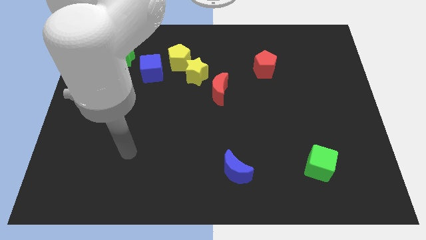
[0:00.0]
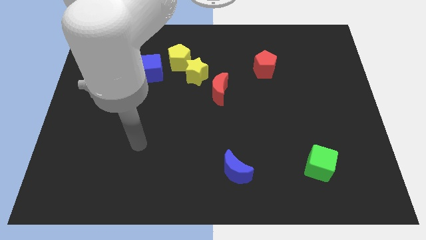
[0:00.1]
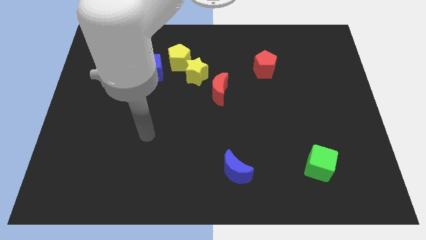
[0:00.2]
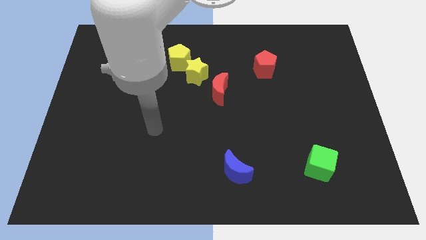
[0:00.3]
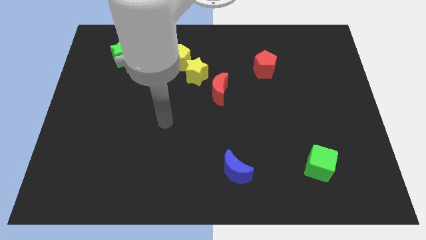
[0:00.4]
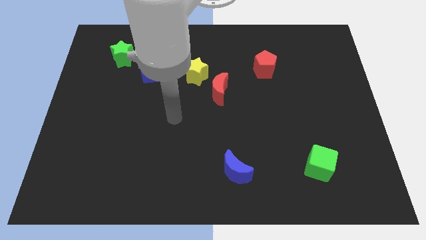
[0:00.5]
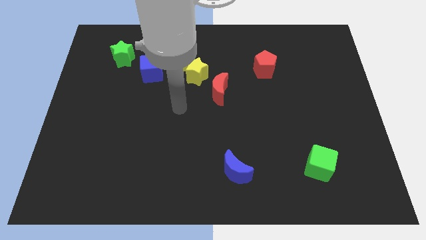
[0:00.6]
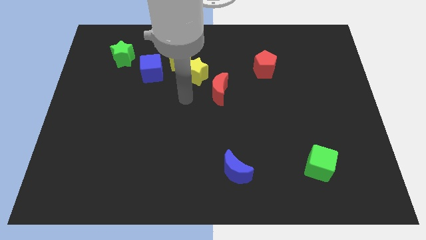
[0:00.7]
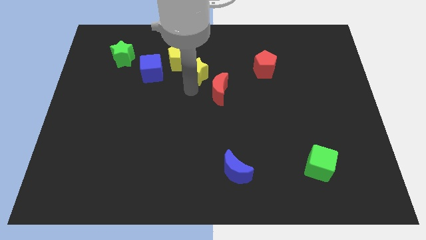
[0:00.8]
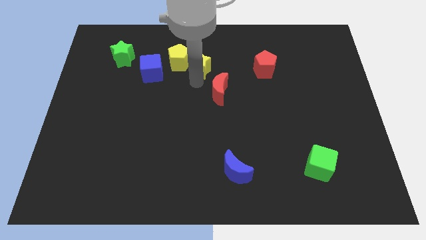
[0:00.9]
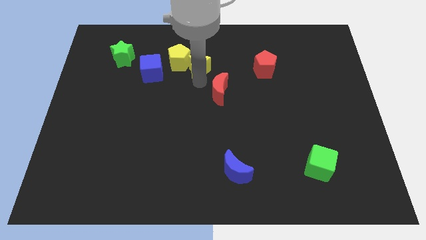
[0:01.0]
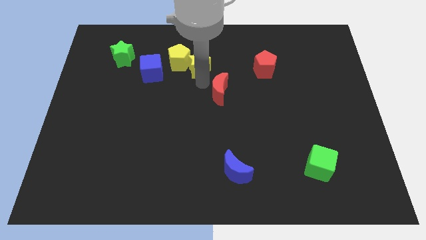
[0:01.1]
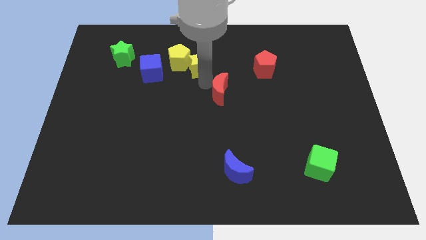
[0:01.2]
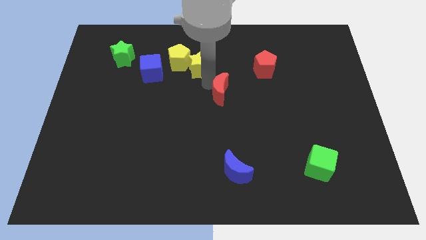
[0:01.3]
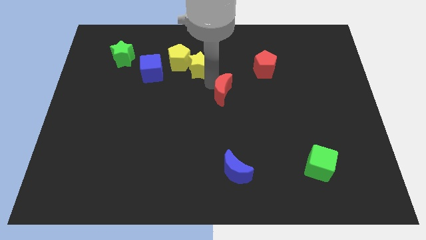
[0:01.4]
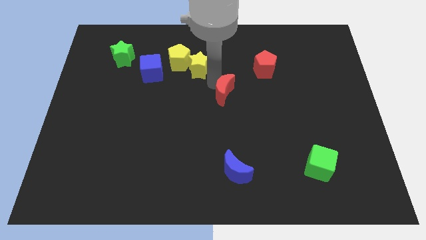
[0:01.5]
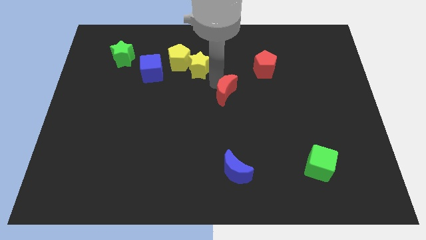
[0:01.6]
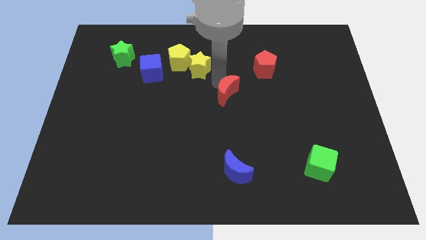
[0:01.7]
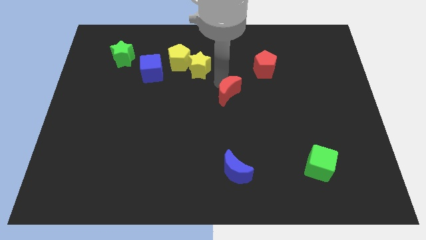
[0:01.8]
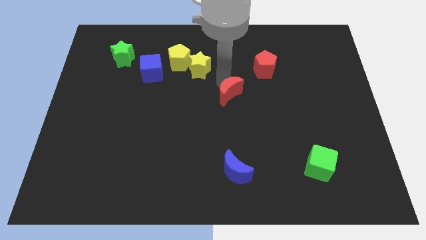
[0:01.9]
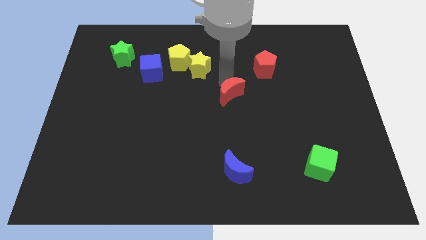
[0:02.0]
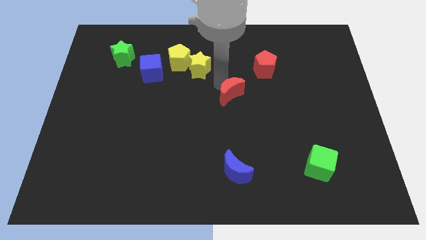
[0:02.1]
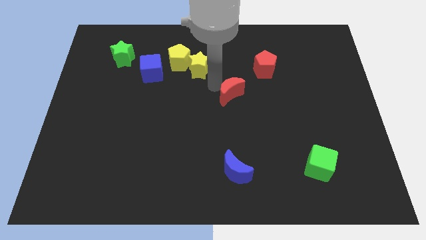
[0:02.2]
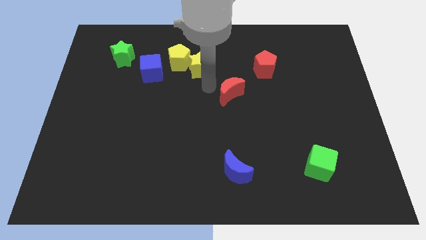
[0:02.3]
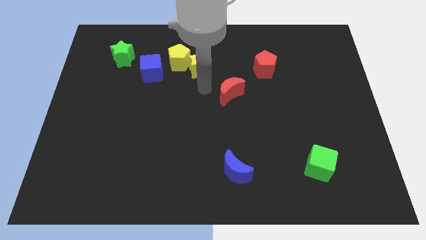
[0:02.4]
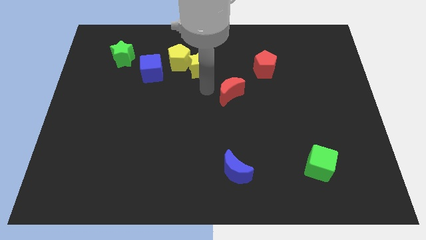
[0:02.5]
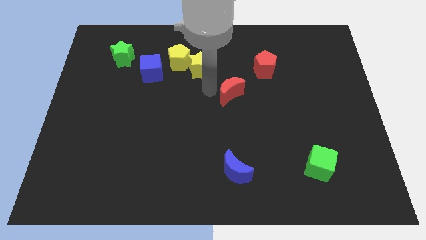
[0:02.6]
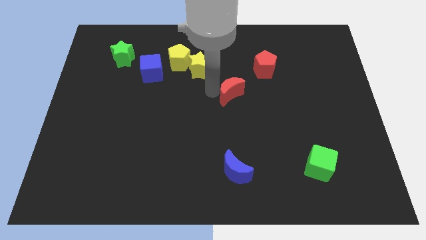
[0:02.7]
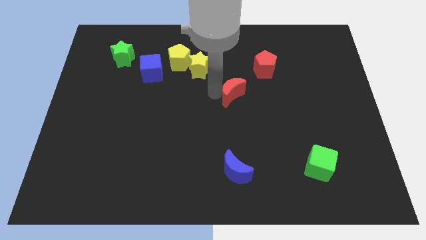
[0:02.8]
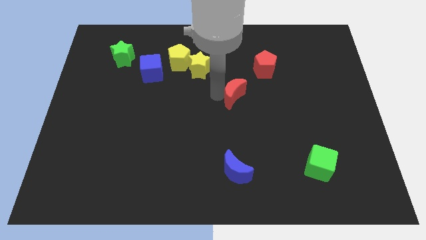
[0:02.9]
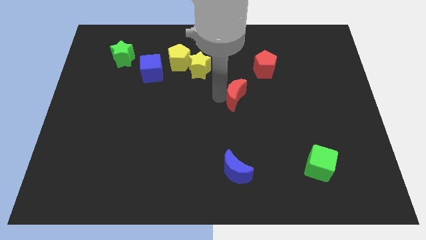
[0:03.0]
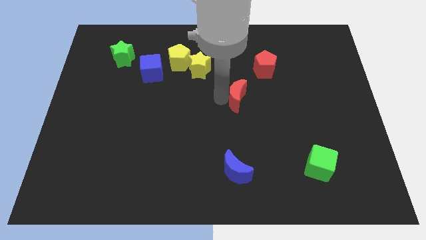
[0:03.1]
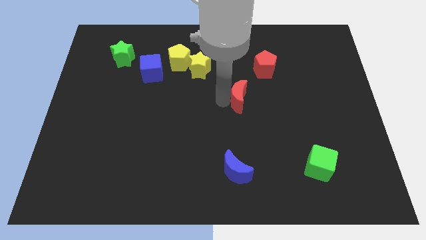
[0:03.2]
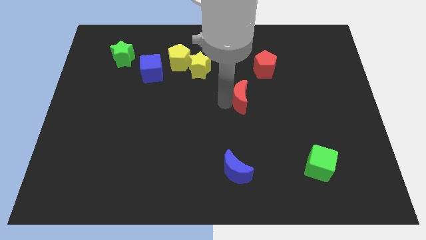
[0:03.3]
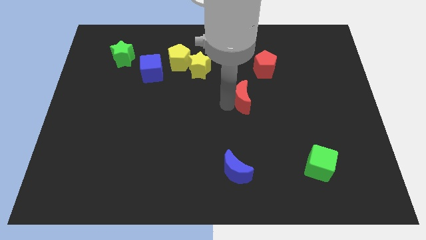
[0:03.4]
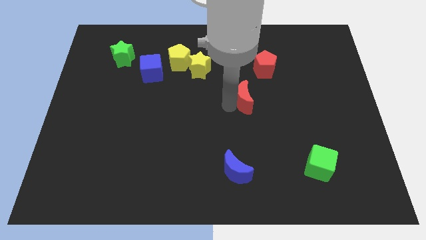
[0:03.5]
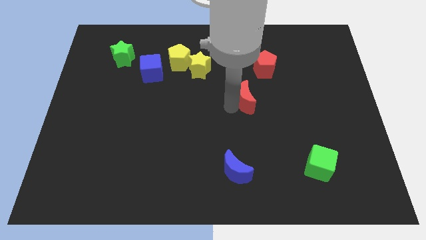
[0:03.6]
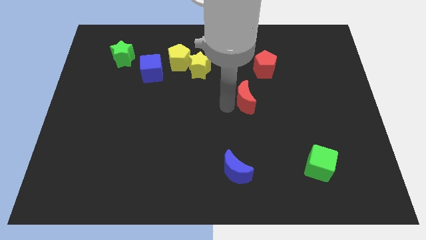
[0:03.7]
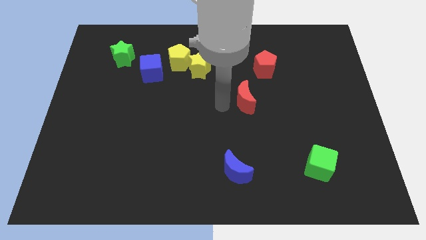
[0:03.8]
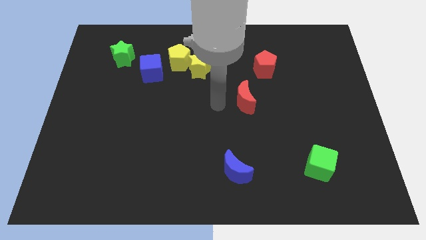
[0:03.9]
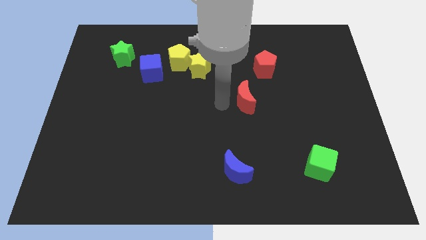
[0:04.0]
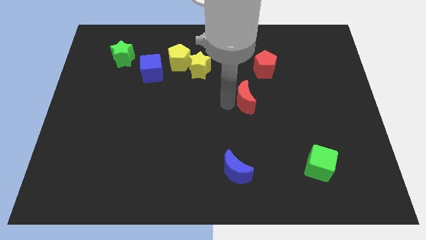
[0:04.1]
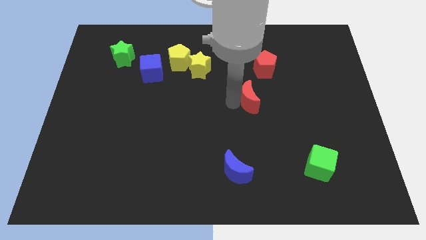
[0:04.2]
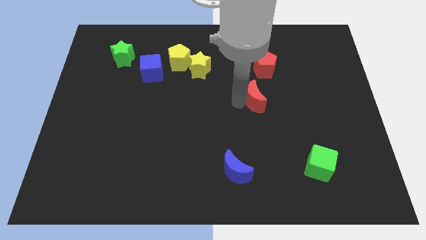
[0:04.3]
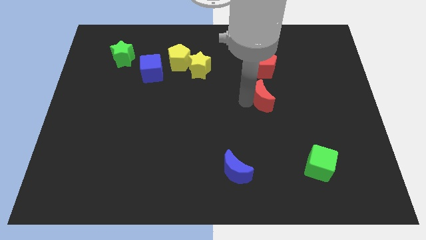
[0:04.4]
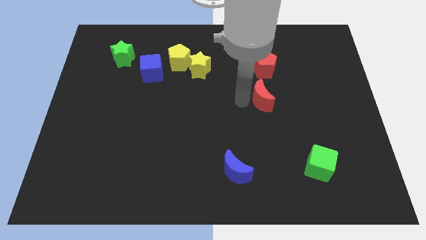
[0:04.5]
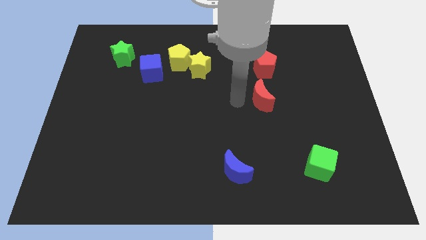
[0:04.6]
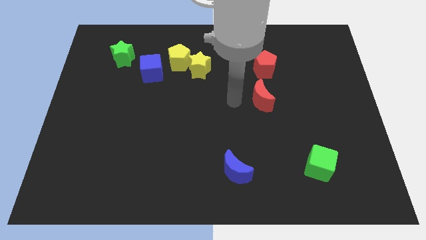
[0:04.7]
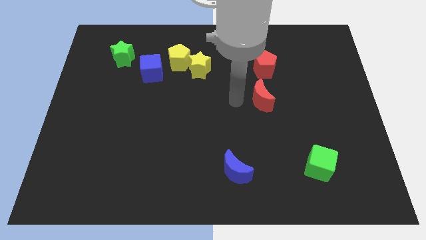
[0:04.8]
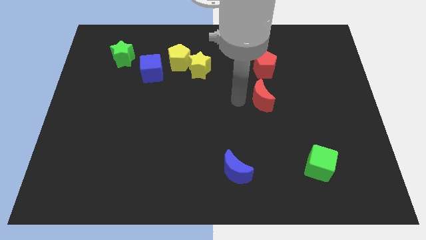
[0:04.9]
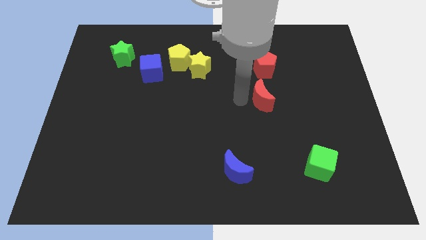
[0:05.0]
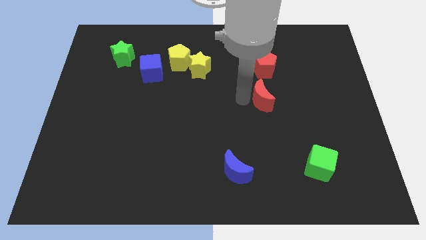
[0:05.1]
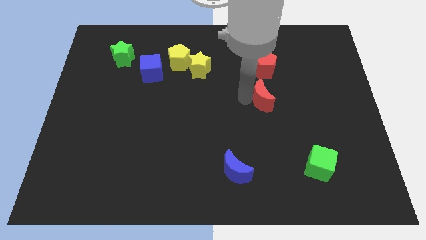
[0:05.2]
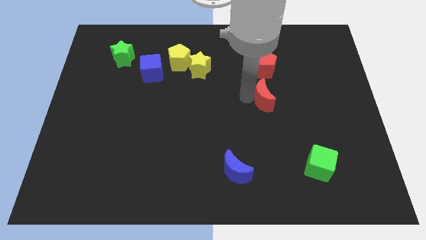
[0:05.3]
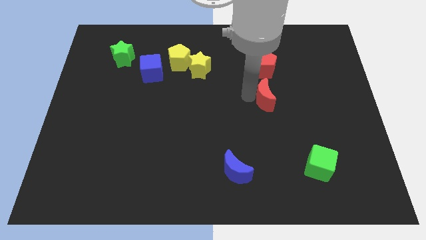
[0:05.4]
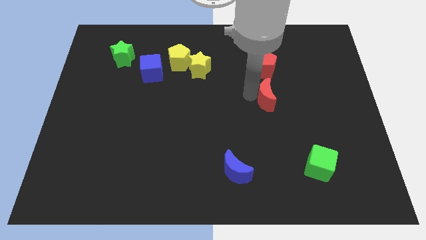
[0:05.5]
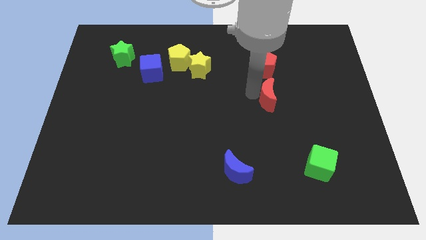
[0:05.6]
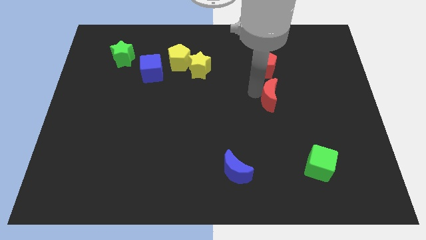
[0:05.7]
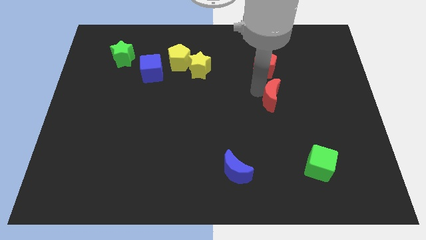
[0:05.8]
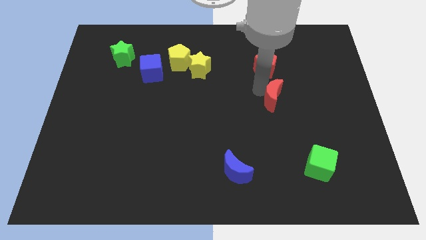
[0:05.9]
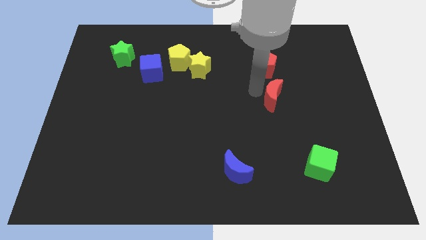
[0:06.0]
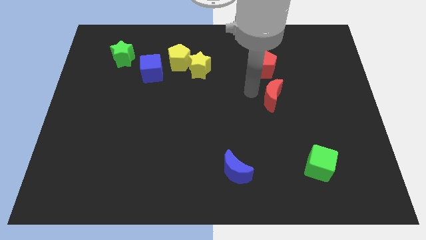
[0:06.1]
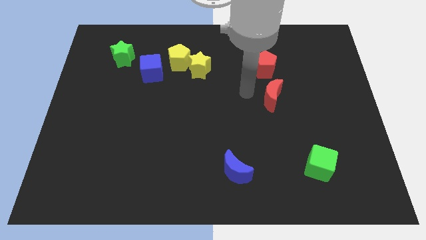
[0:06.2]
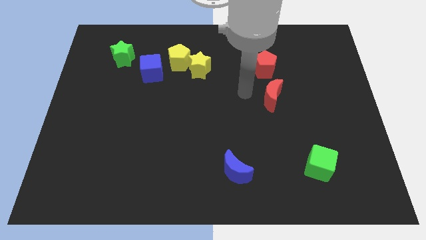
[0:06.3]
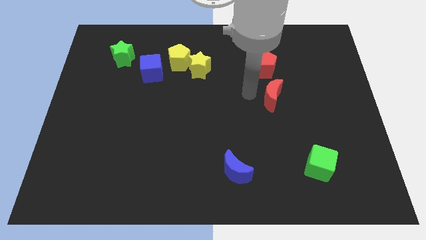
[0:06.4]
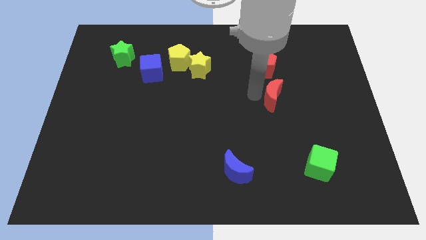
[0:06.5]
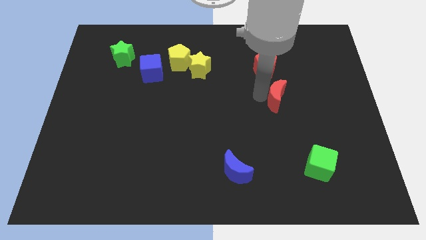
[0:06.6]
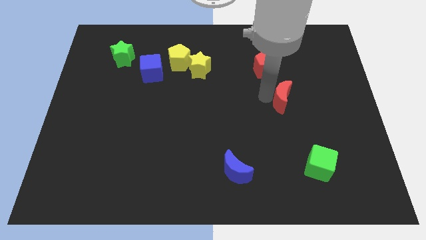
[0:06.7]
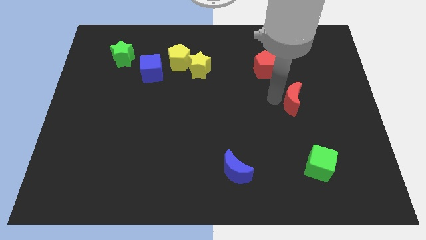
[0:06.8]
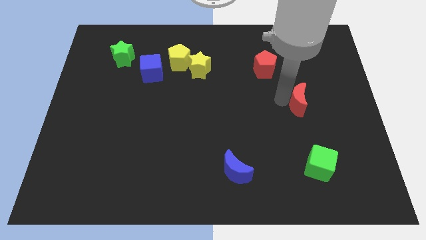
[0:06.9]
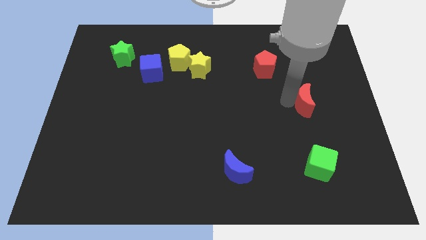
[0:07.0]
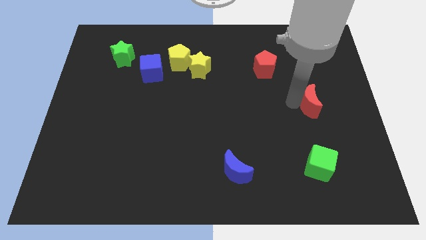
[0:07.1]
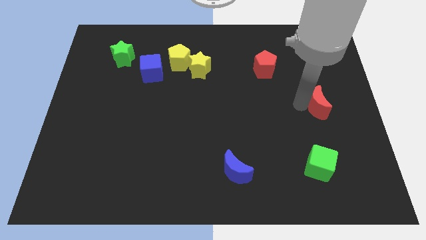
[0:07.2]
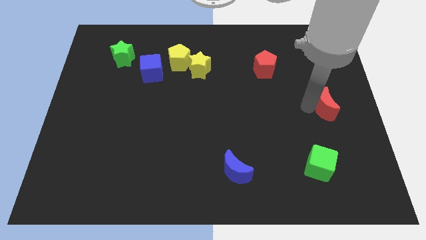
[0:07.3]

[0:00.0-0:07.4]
move the red moon to the right side of the board
